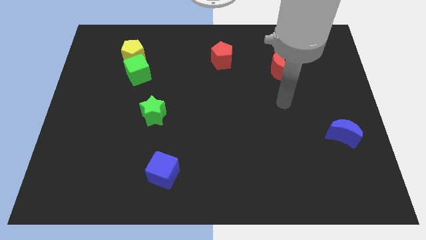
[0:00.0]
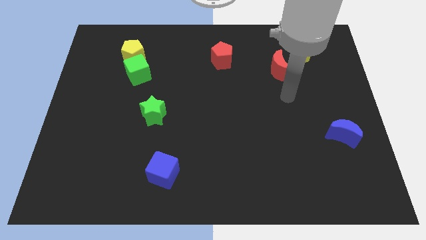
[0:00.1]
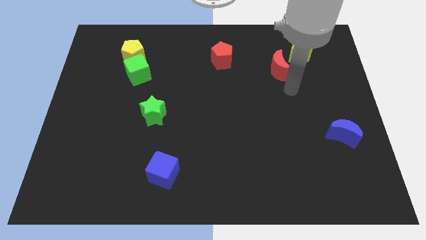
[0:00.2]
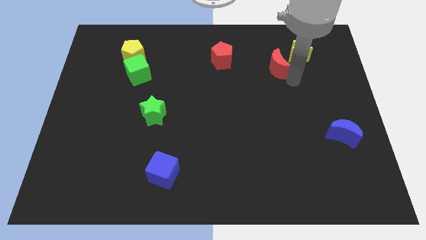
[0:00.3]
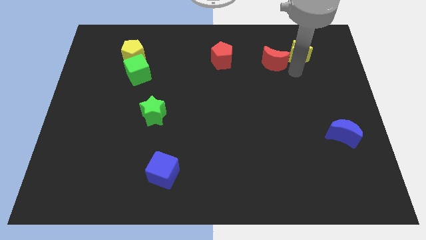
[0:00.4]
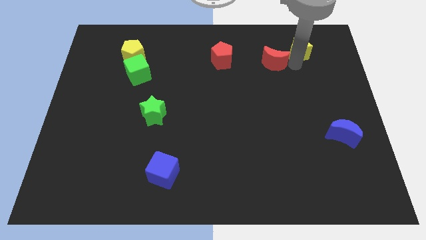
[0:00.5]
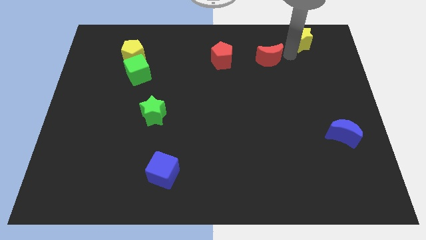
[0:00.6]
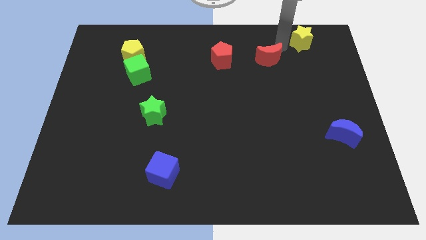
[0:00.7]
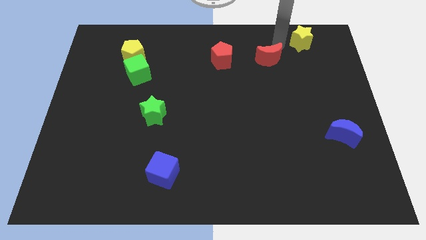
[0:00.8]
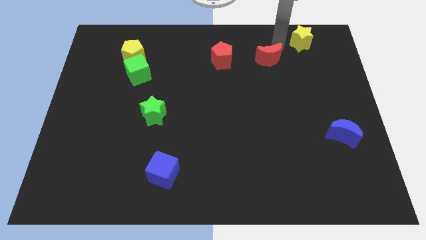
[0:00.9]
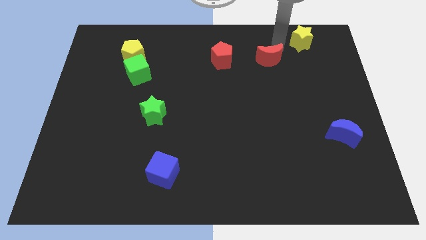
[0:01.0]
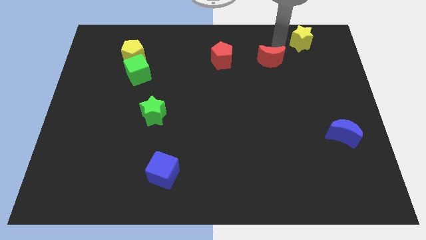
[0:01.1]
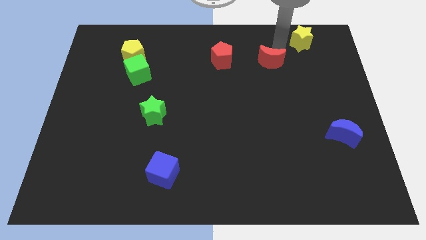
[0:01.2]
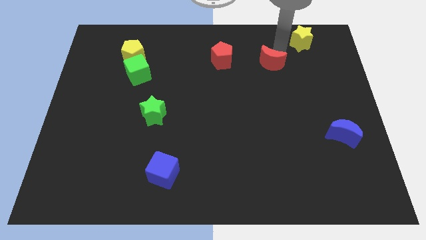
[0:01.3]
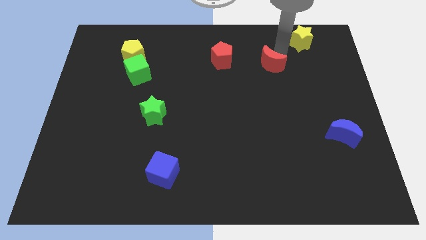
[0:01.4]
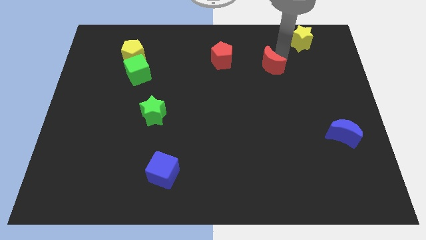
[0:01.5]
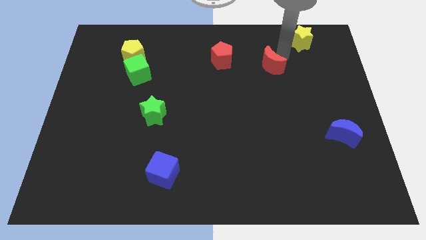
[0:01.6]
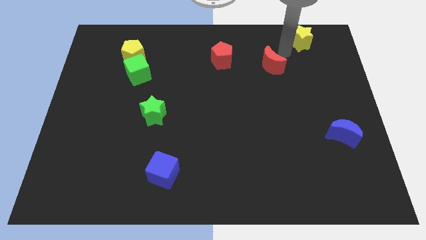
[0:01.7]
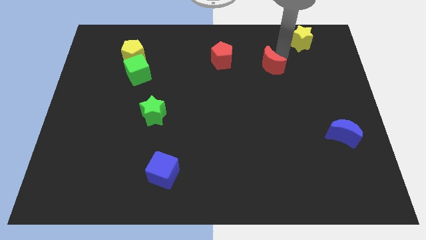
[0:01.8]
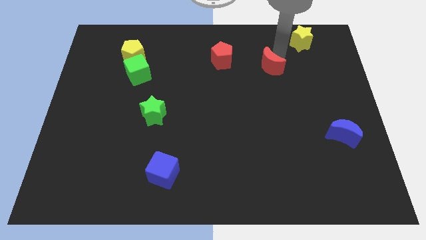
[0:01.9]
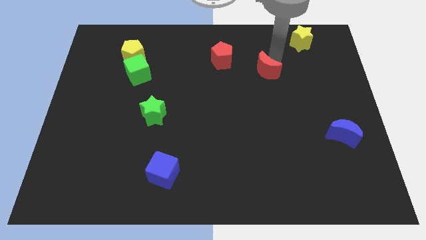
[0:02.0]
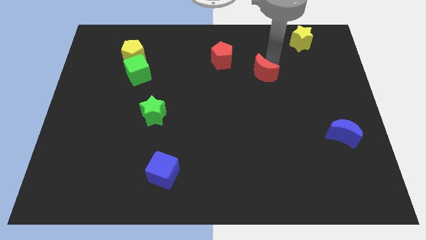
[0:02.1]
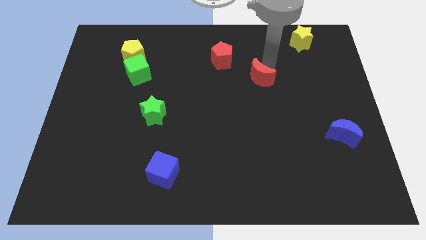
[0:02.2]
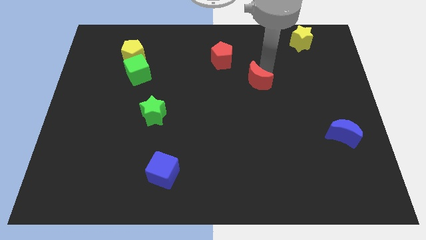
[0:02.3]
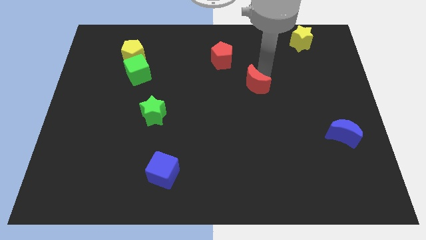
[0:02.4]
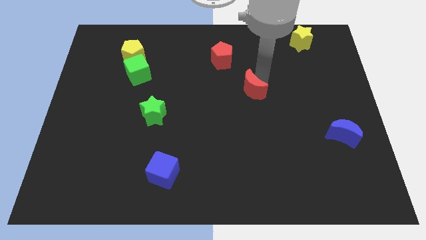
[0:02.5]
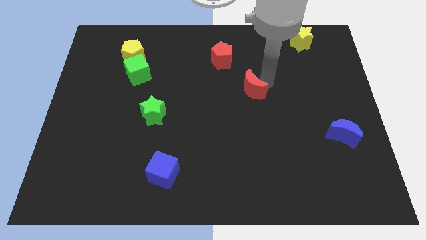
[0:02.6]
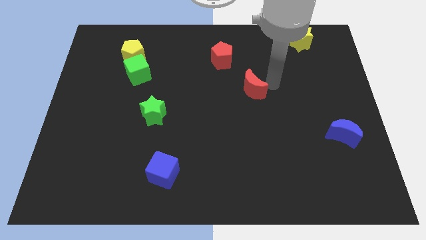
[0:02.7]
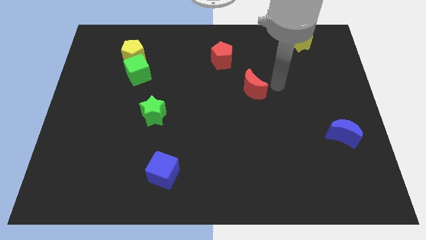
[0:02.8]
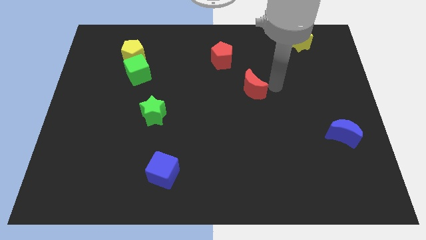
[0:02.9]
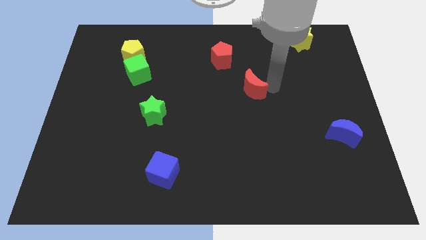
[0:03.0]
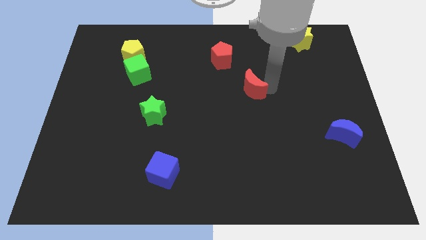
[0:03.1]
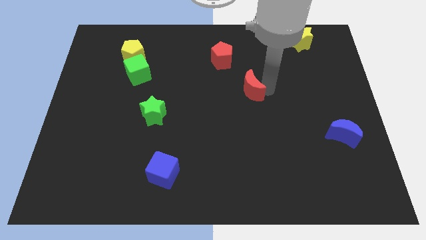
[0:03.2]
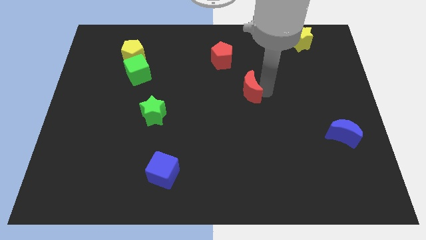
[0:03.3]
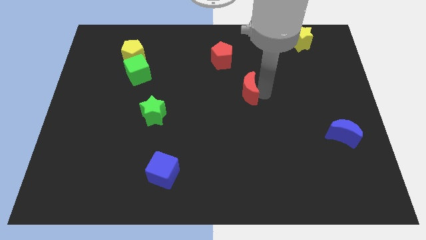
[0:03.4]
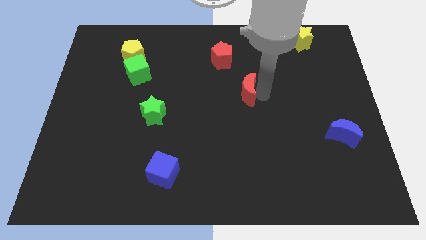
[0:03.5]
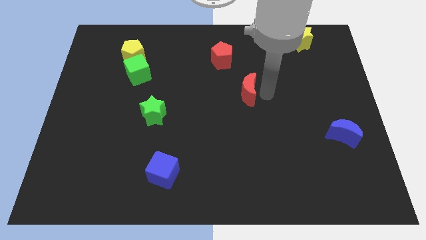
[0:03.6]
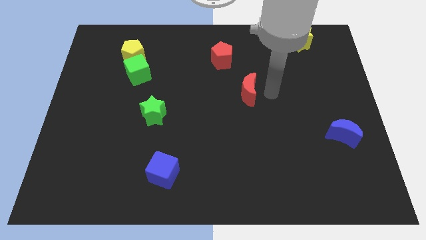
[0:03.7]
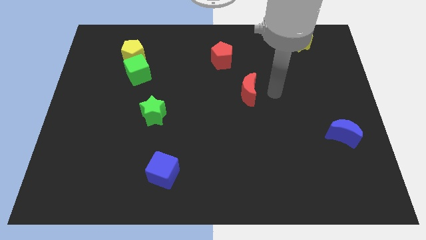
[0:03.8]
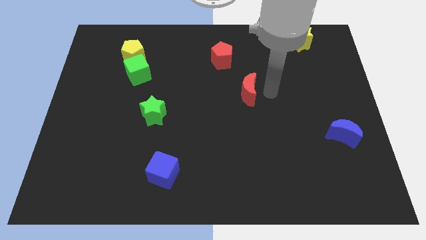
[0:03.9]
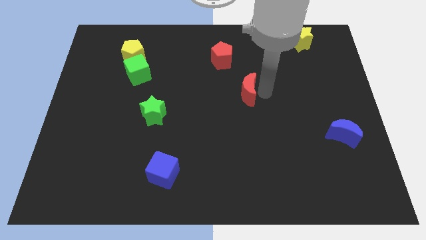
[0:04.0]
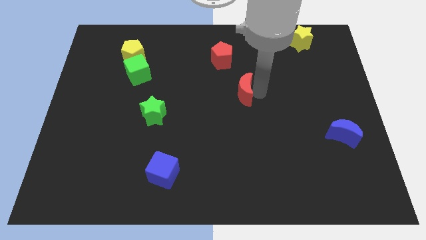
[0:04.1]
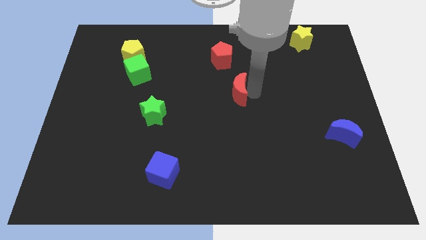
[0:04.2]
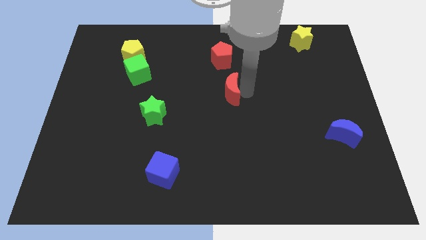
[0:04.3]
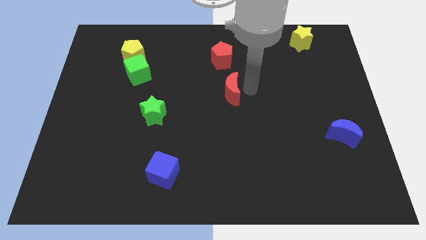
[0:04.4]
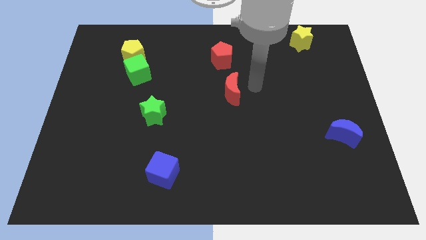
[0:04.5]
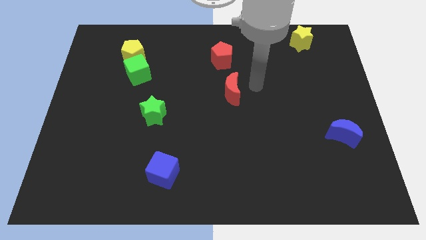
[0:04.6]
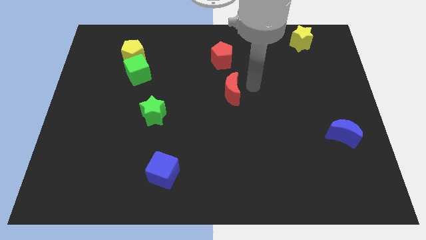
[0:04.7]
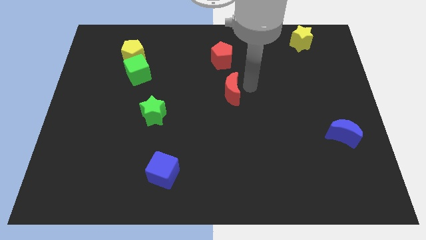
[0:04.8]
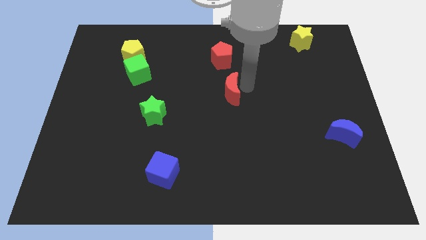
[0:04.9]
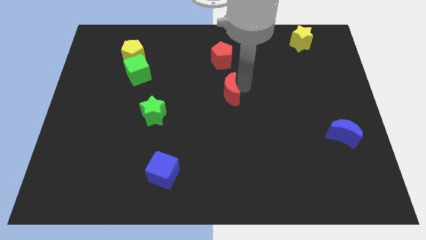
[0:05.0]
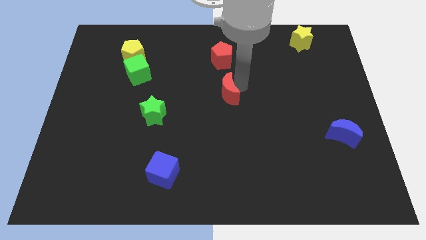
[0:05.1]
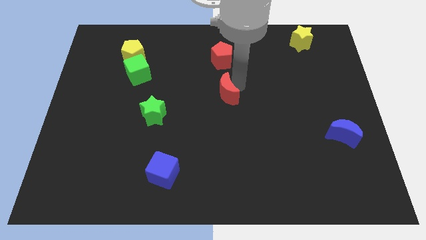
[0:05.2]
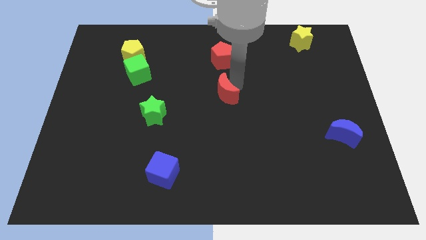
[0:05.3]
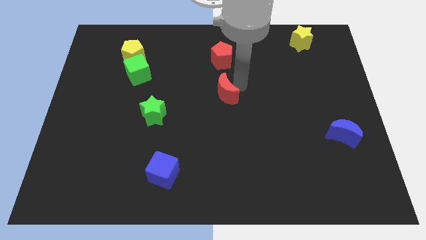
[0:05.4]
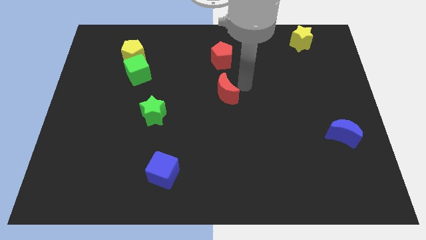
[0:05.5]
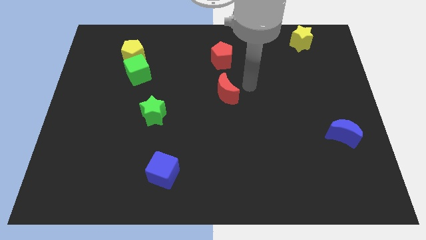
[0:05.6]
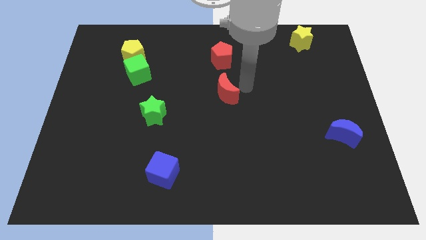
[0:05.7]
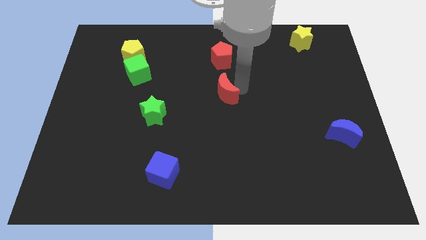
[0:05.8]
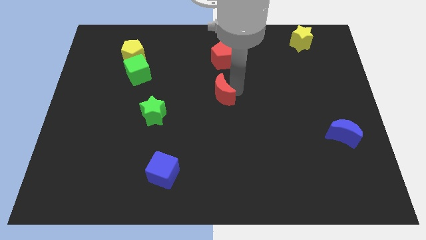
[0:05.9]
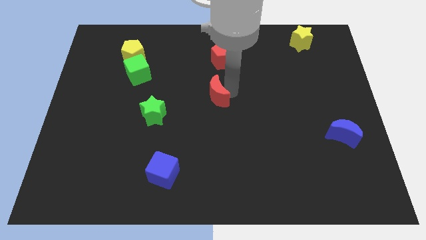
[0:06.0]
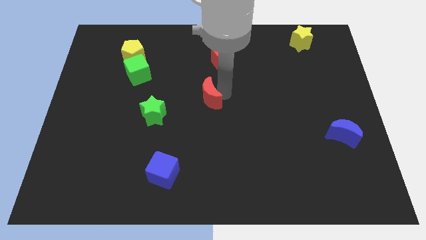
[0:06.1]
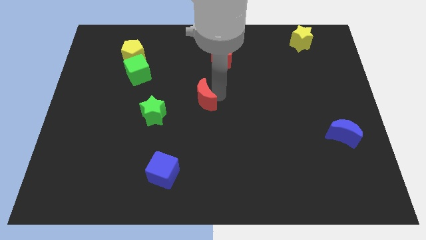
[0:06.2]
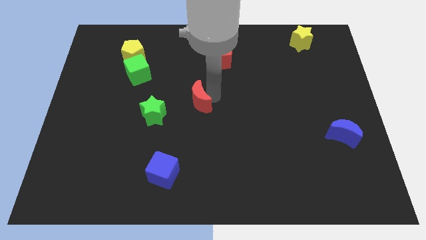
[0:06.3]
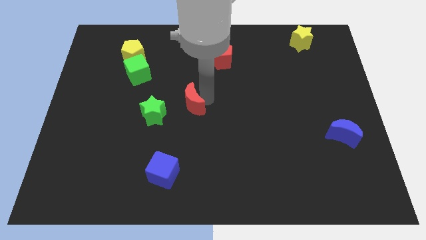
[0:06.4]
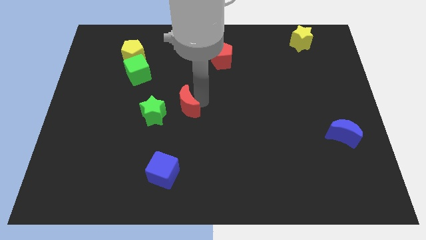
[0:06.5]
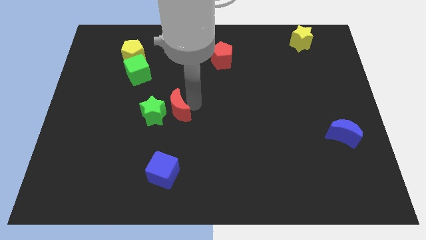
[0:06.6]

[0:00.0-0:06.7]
push the red moon to the green star

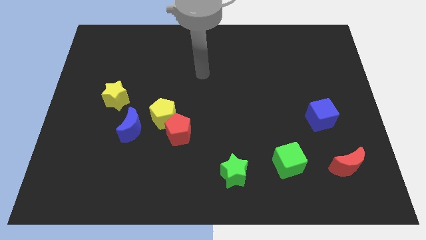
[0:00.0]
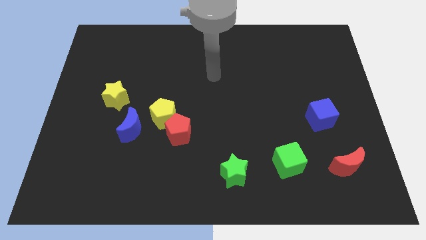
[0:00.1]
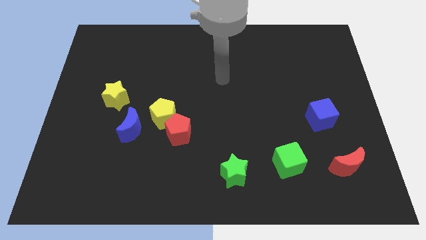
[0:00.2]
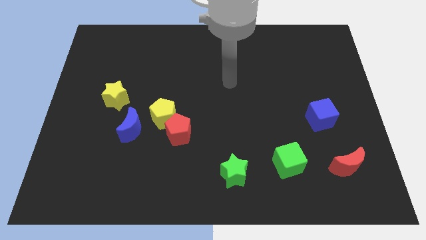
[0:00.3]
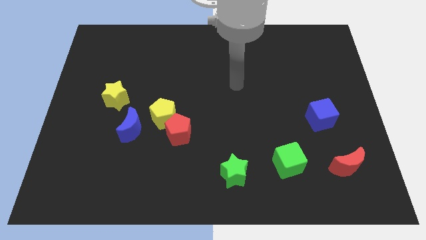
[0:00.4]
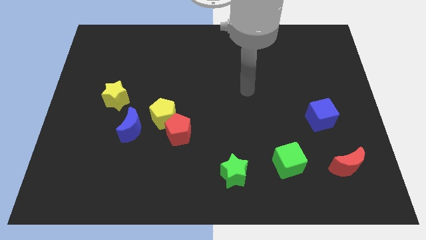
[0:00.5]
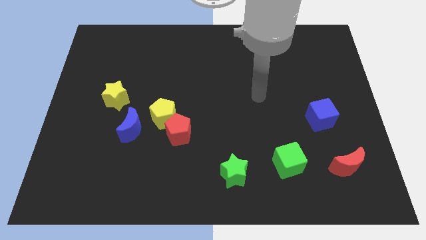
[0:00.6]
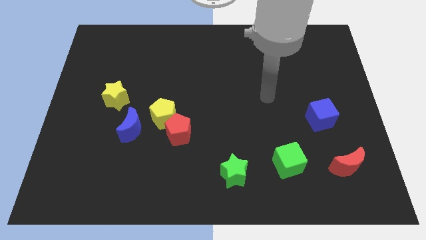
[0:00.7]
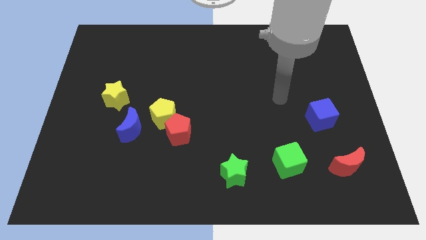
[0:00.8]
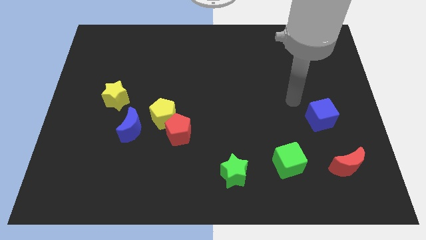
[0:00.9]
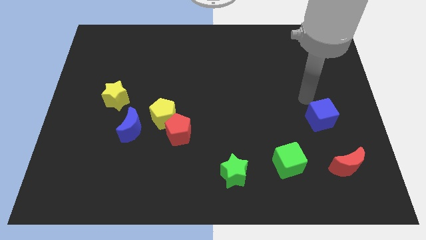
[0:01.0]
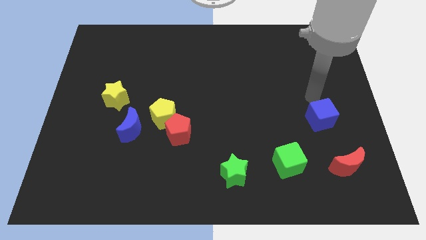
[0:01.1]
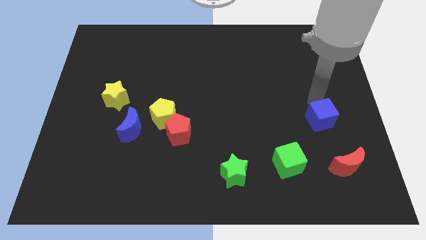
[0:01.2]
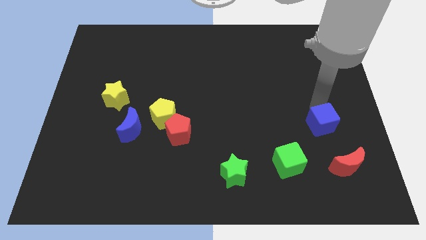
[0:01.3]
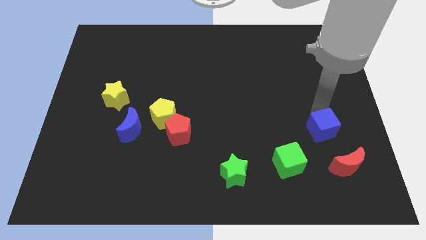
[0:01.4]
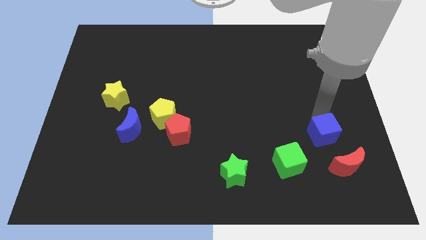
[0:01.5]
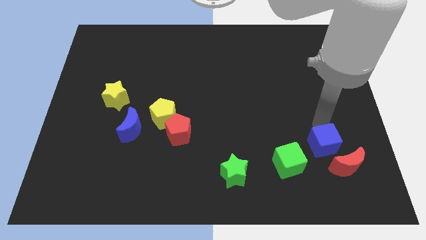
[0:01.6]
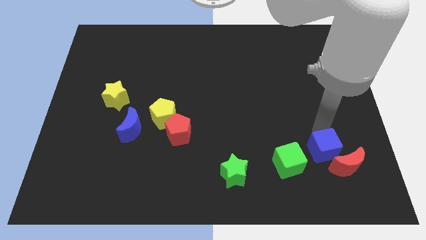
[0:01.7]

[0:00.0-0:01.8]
push the blue cube next to the red moon
